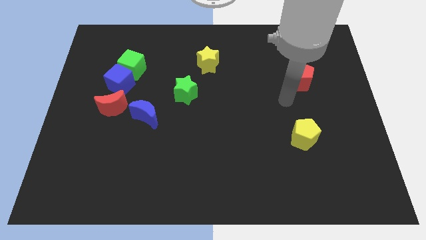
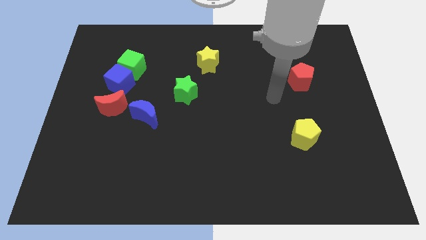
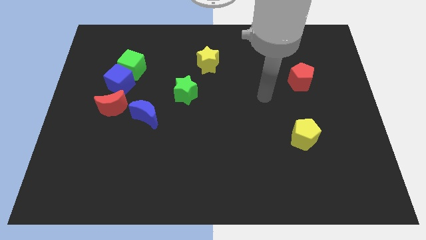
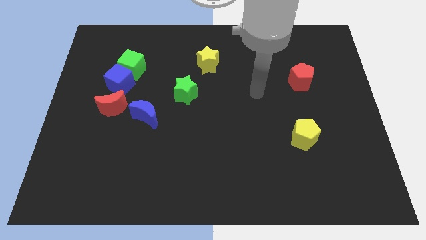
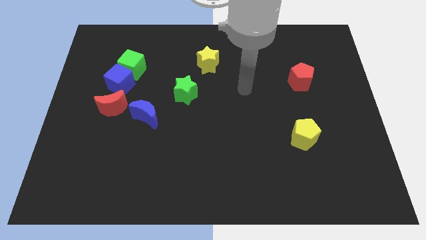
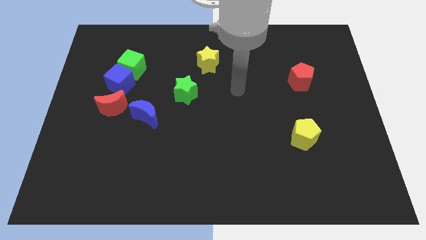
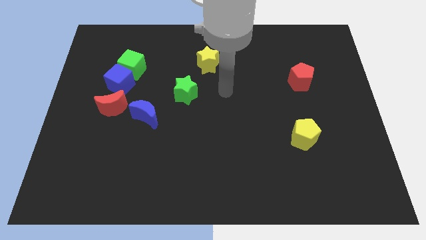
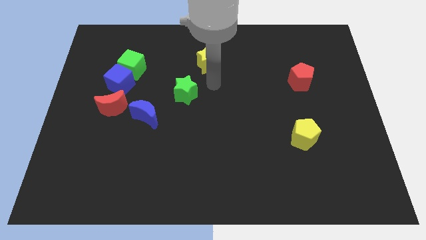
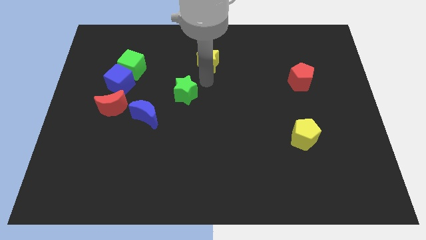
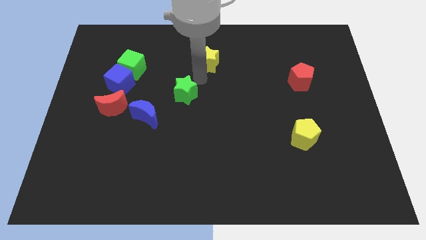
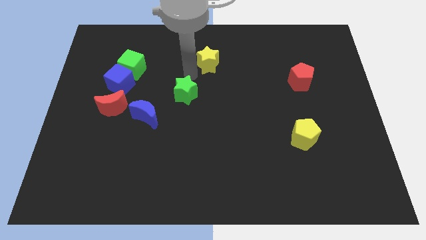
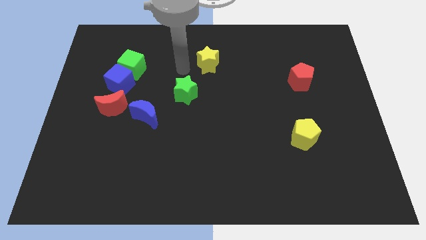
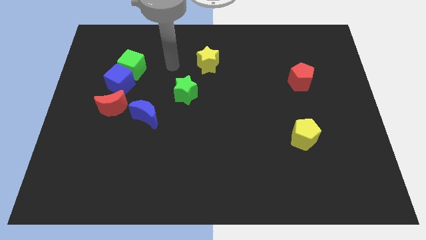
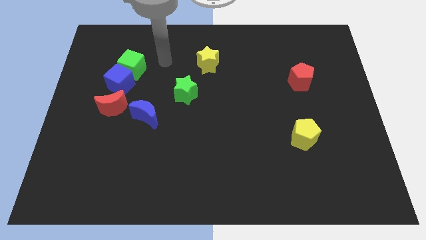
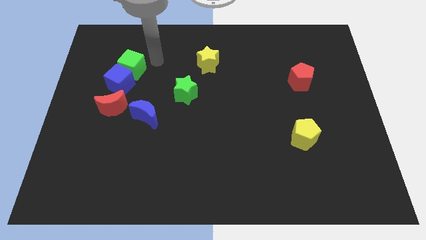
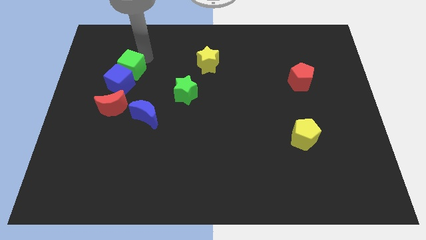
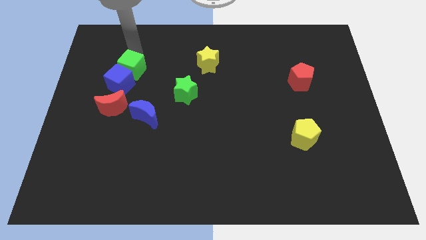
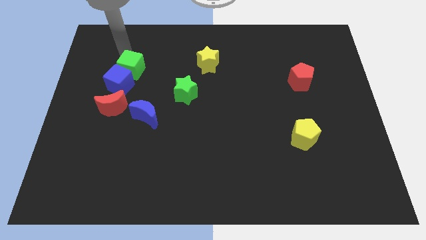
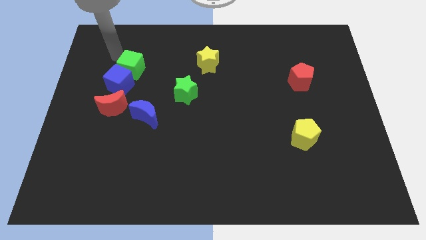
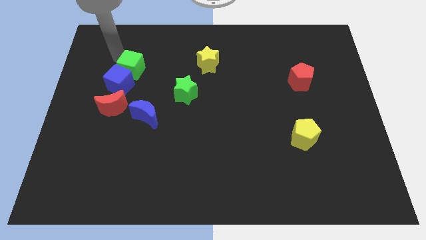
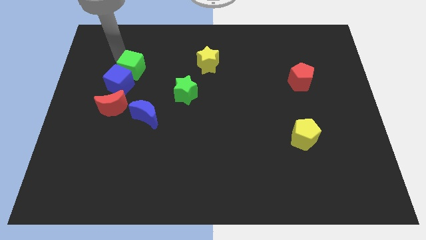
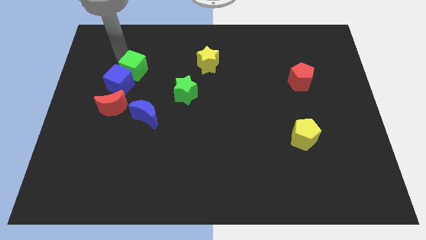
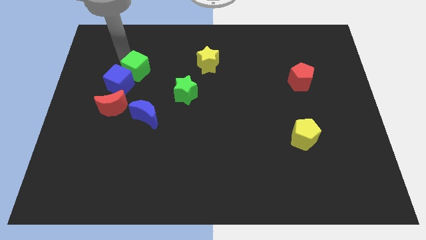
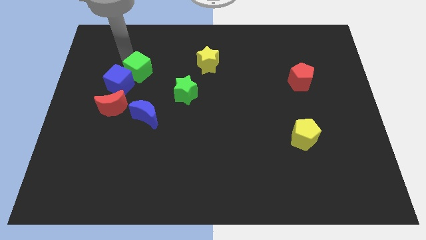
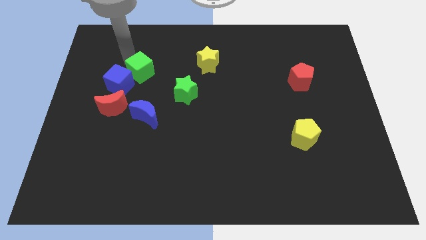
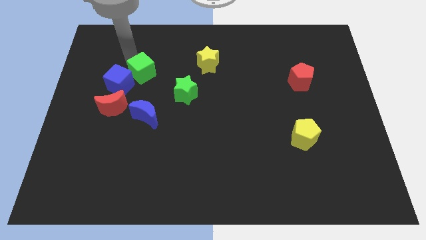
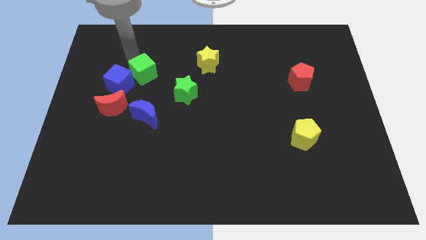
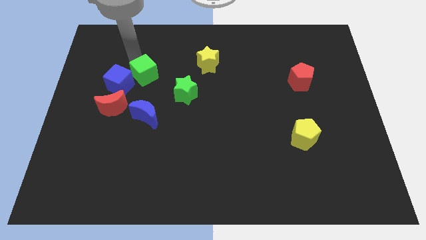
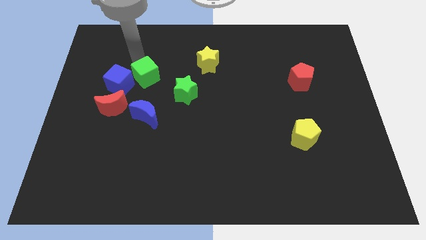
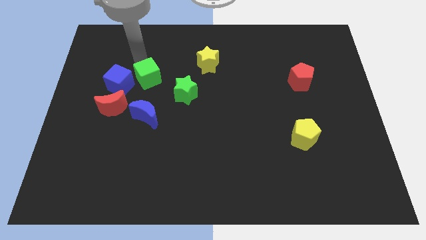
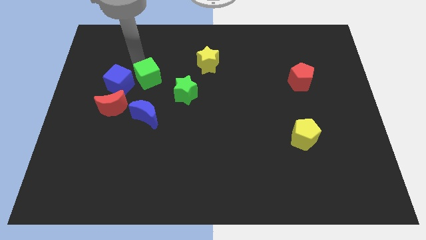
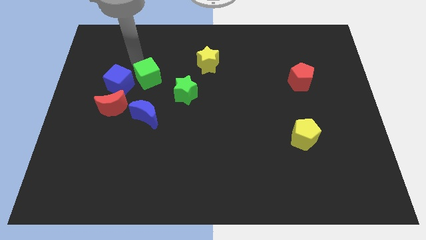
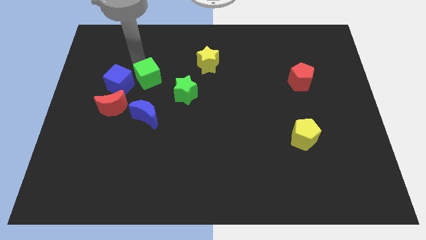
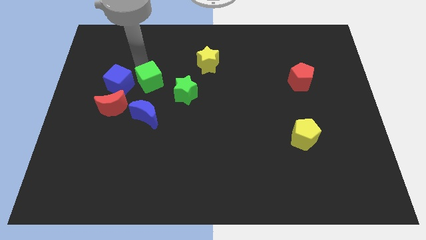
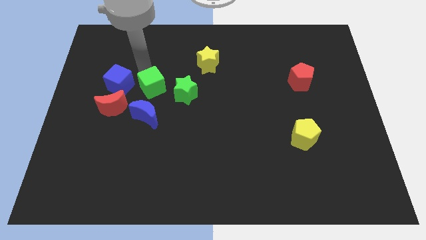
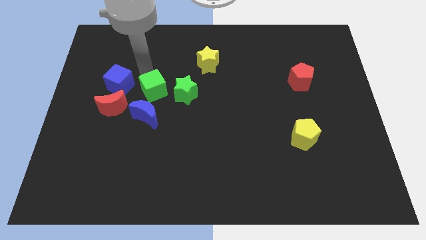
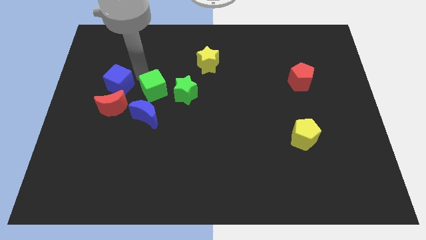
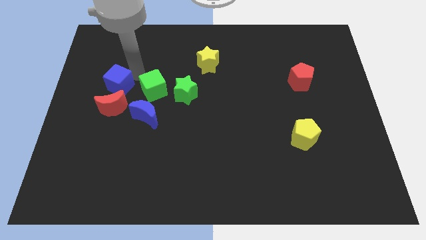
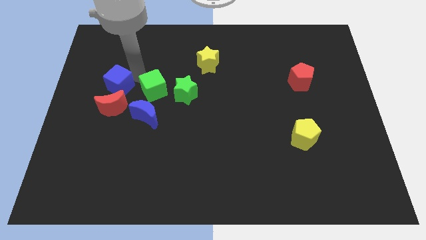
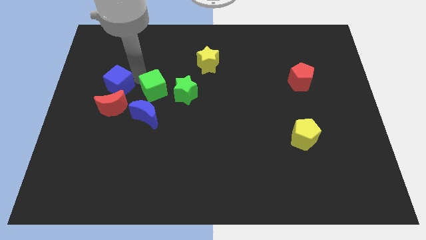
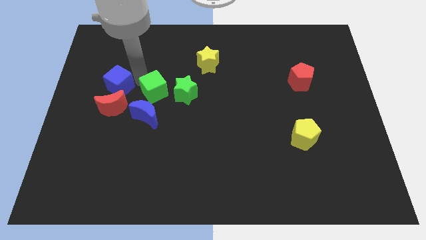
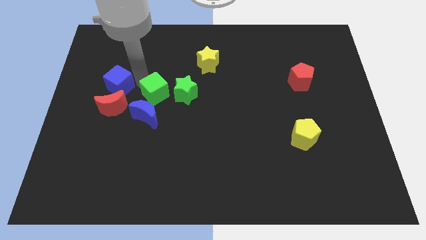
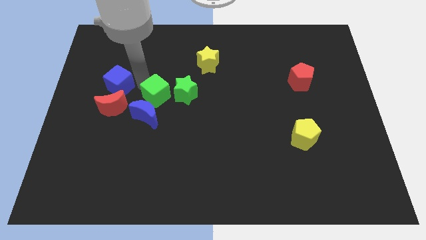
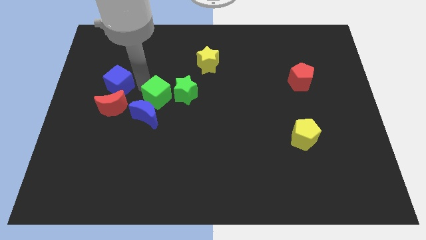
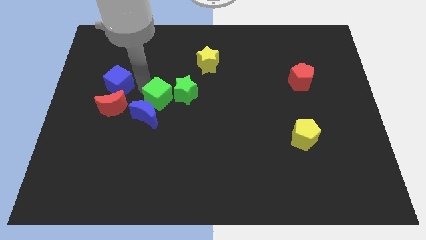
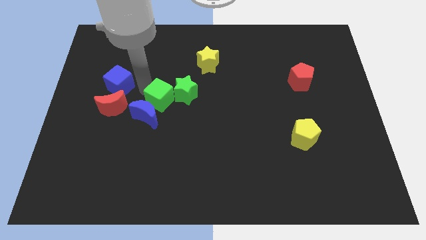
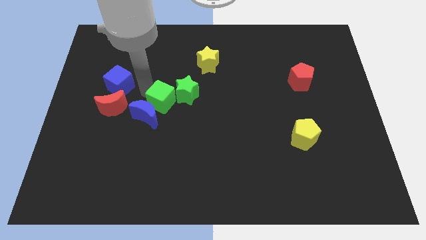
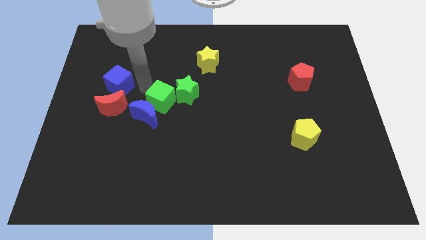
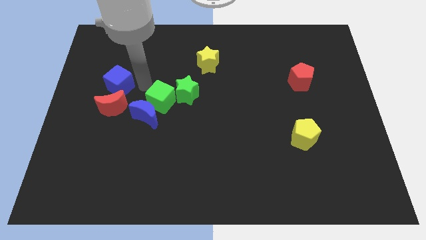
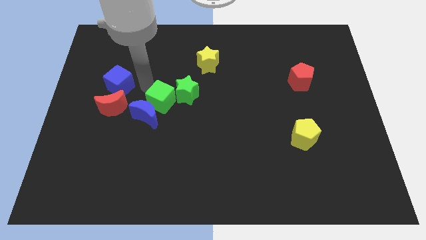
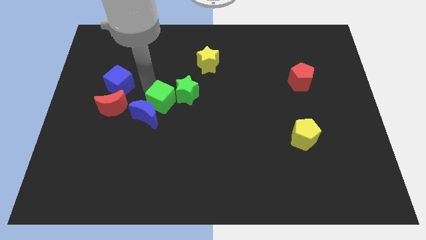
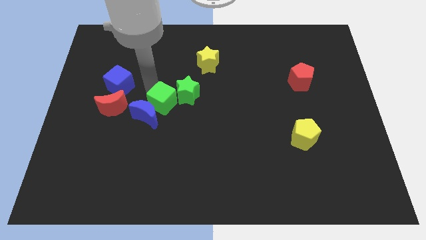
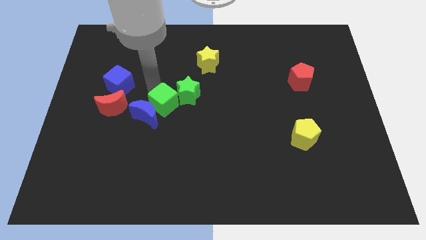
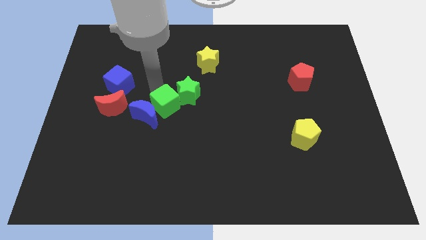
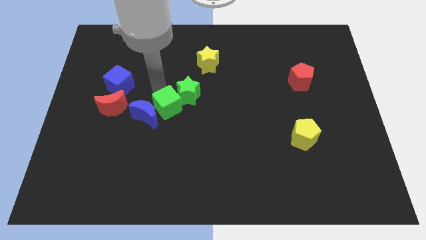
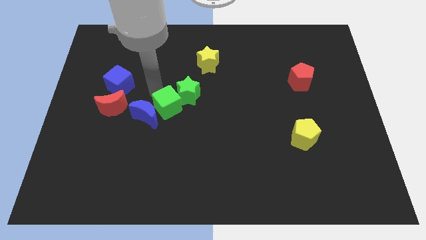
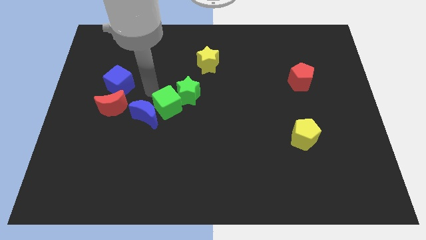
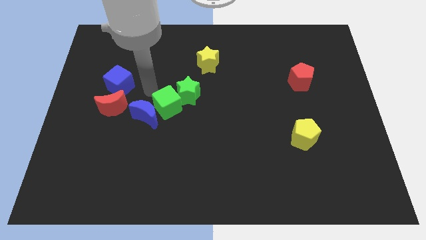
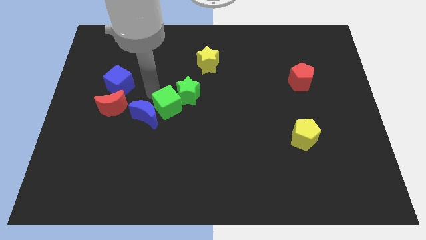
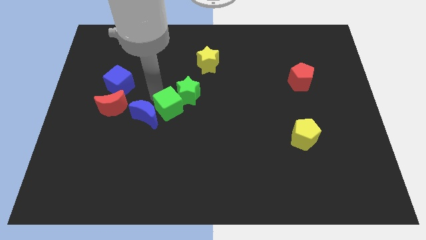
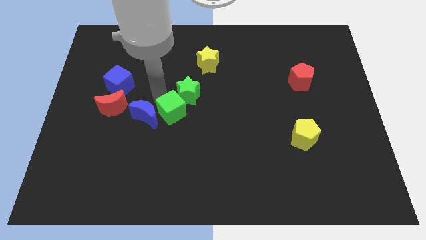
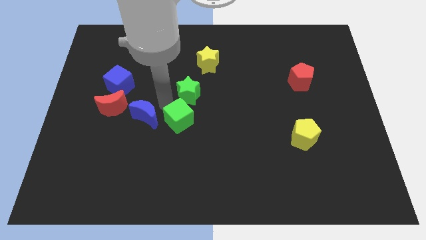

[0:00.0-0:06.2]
move the green cube down and to the right

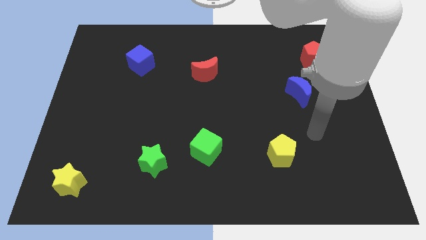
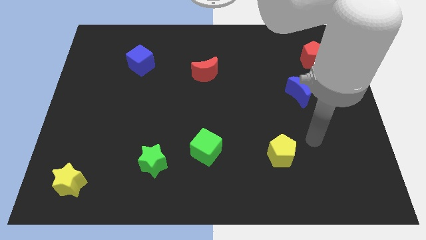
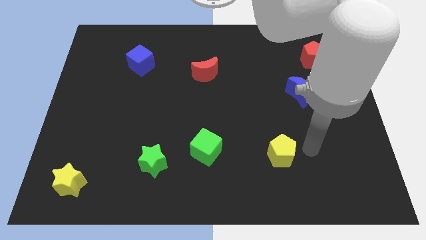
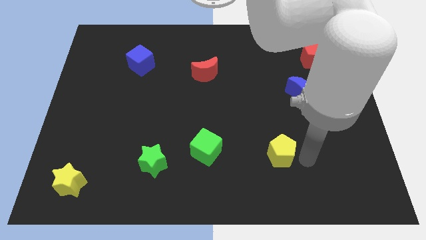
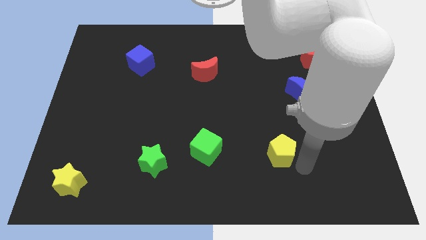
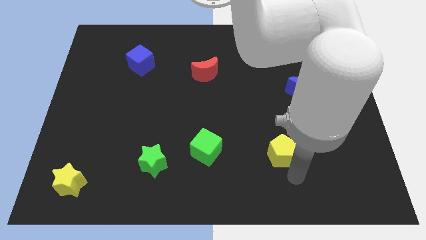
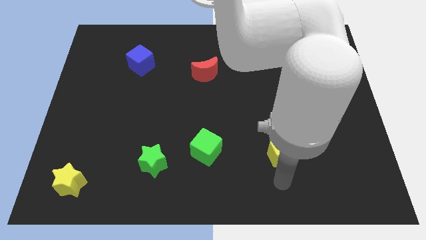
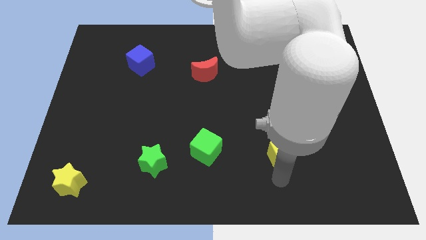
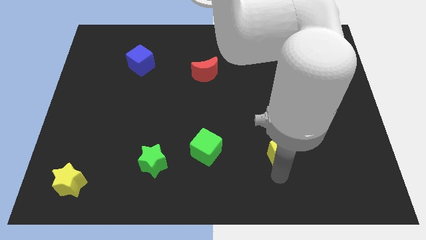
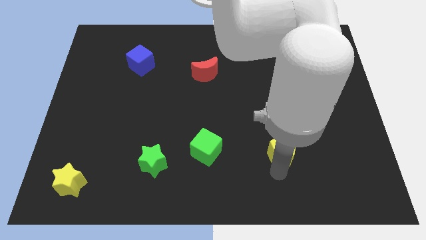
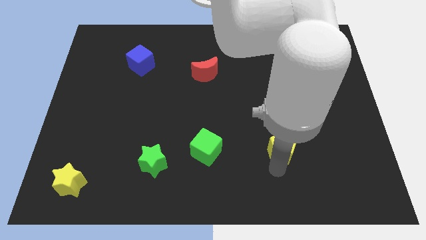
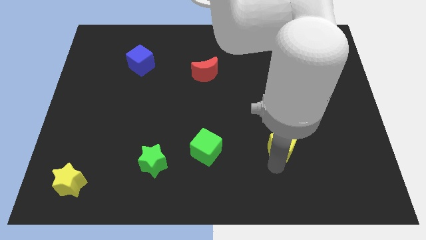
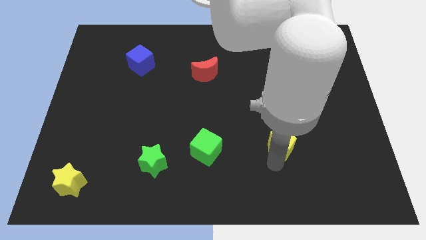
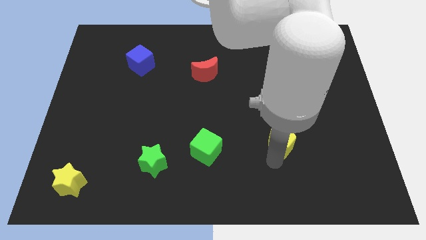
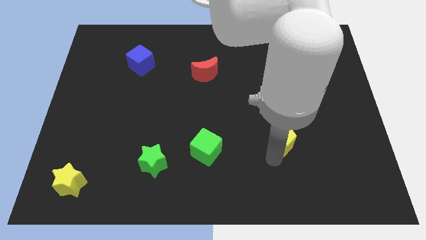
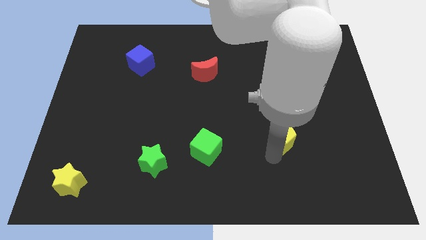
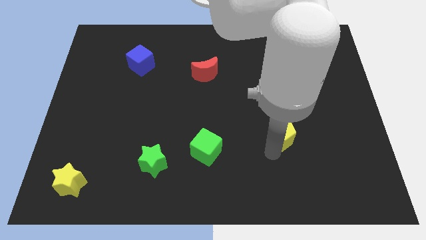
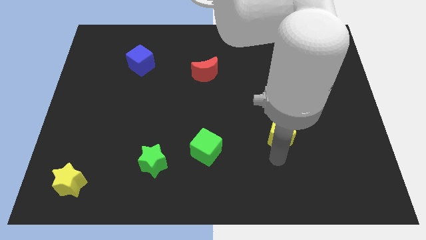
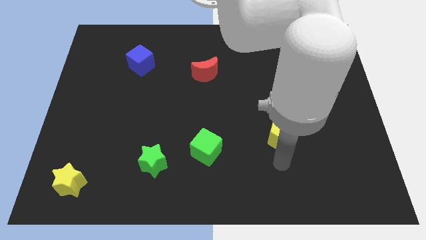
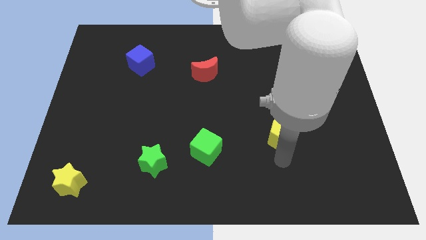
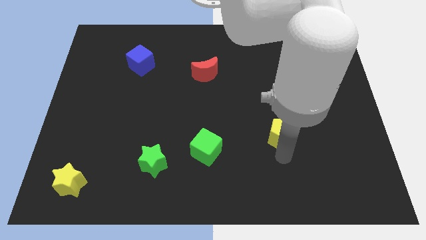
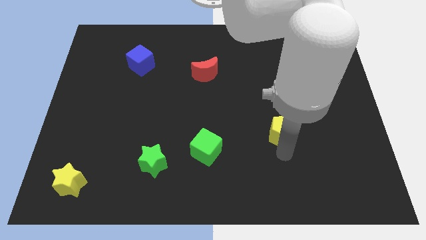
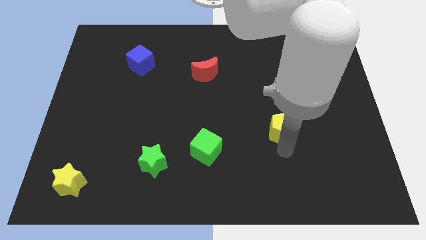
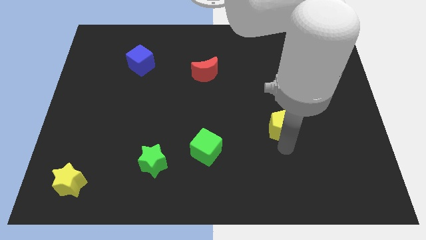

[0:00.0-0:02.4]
move the yellow pentagon up slightly
